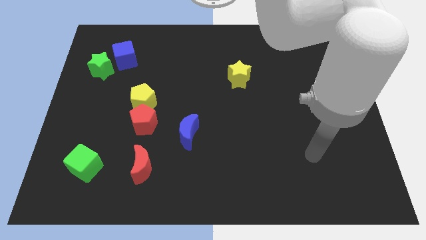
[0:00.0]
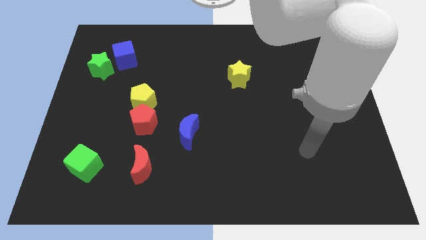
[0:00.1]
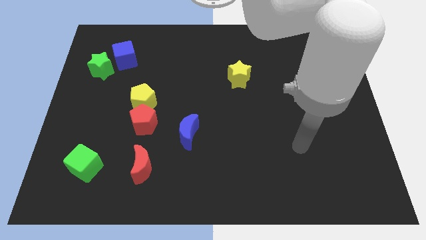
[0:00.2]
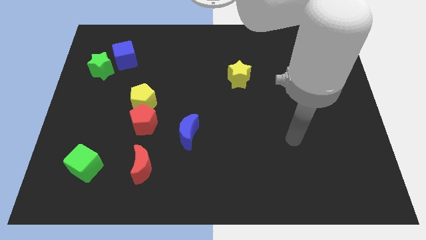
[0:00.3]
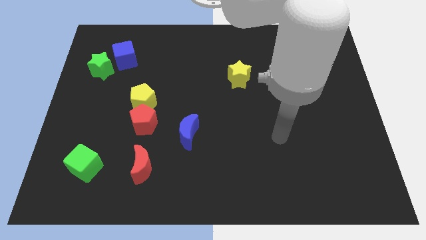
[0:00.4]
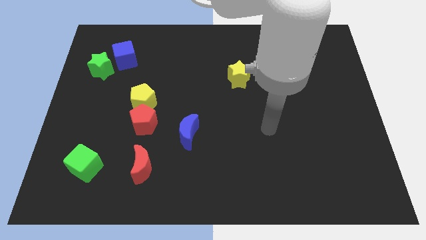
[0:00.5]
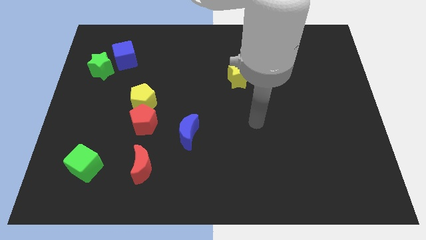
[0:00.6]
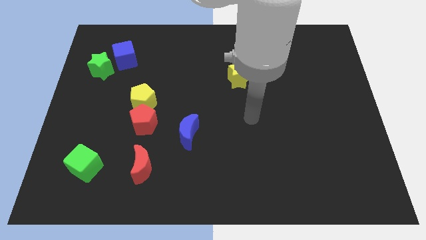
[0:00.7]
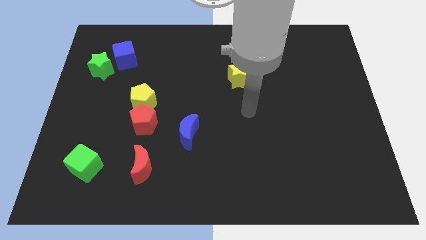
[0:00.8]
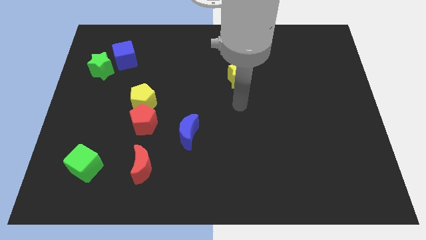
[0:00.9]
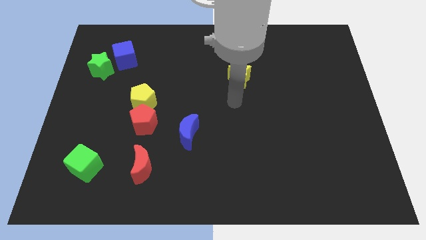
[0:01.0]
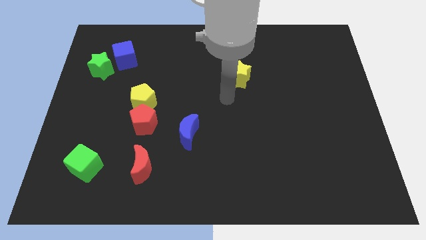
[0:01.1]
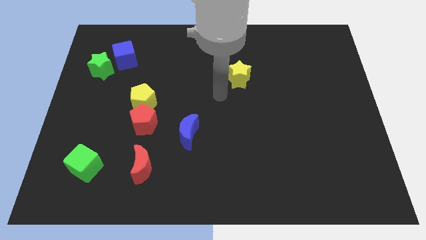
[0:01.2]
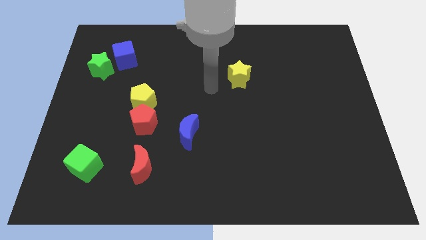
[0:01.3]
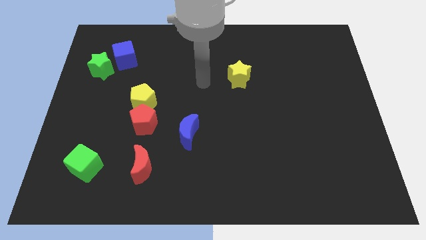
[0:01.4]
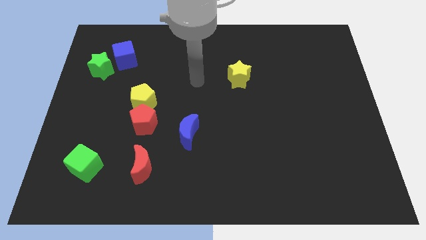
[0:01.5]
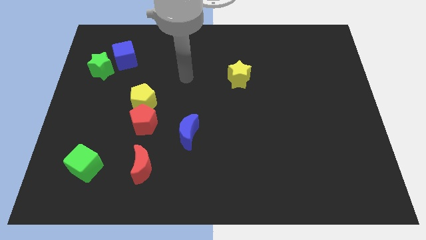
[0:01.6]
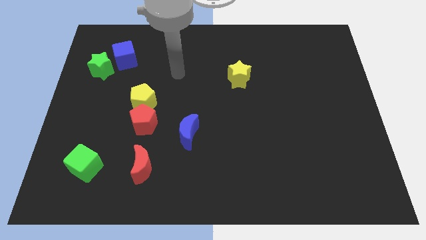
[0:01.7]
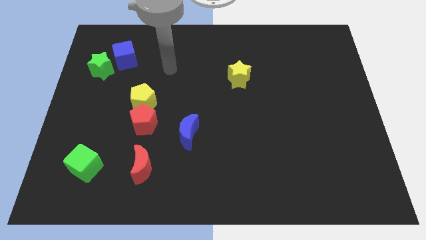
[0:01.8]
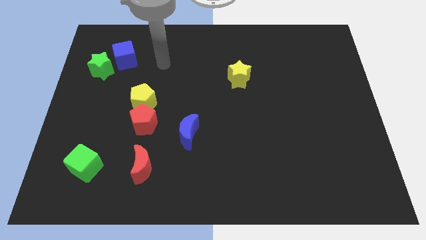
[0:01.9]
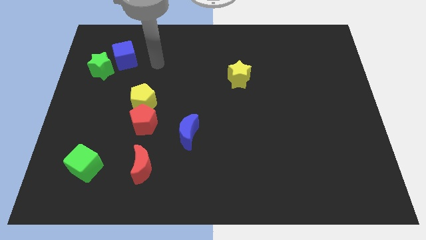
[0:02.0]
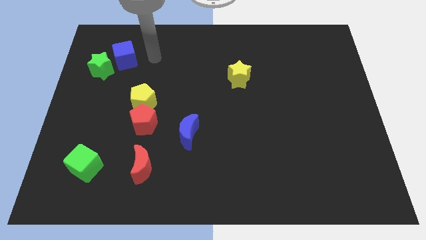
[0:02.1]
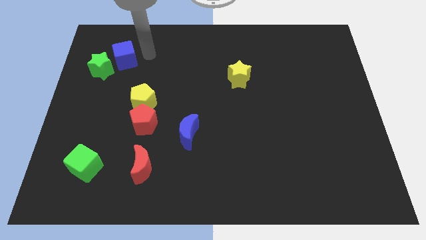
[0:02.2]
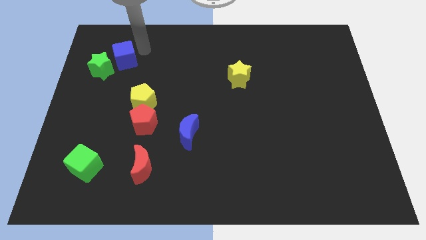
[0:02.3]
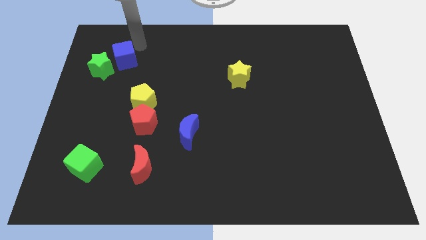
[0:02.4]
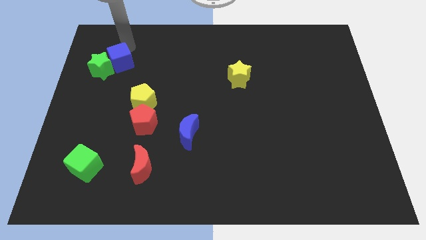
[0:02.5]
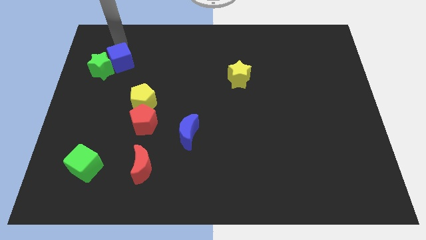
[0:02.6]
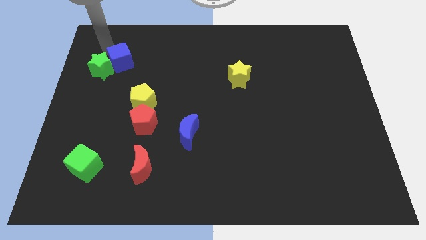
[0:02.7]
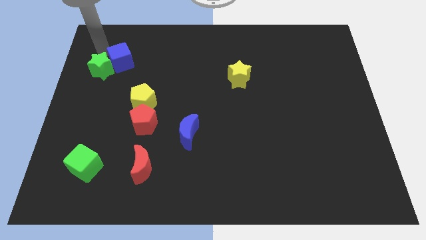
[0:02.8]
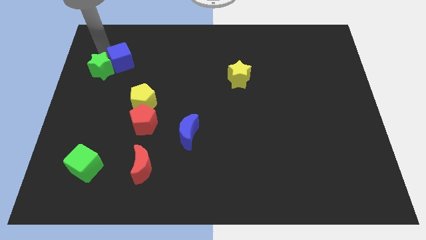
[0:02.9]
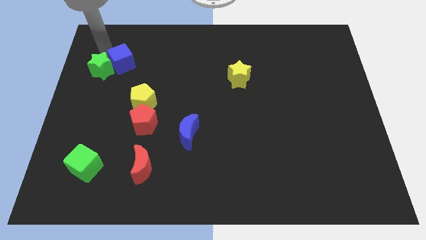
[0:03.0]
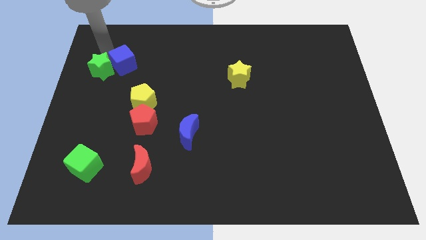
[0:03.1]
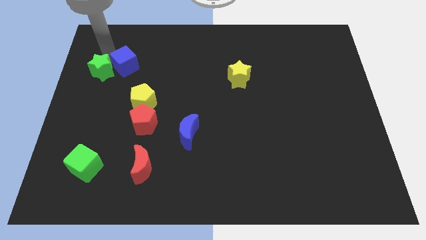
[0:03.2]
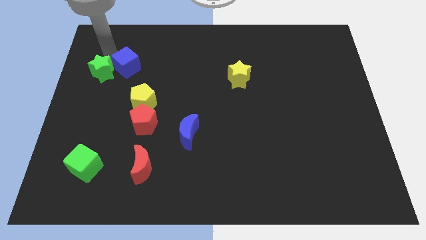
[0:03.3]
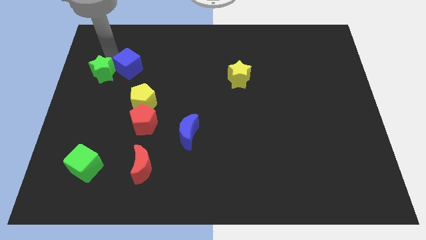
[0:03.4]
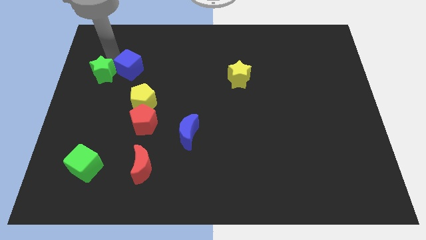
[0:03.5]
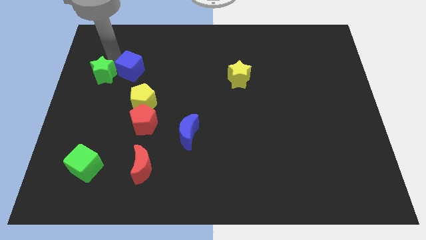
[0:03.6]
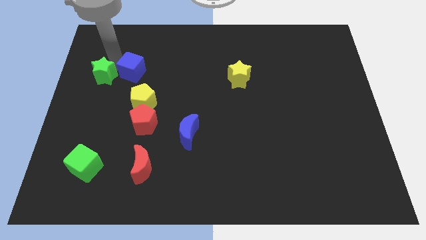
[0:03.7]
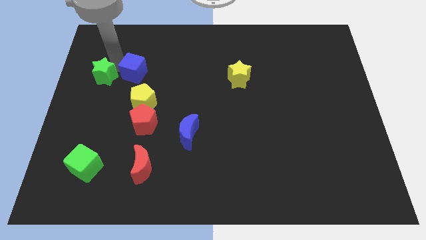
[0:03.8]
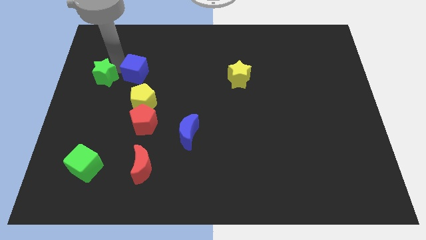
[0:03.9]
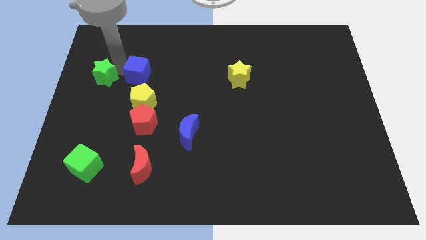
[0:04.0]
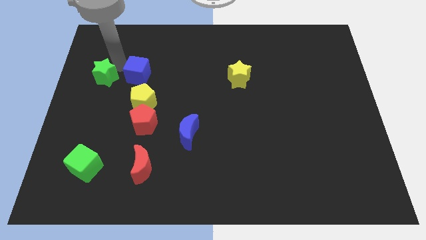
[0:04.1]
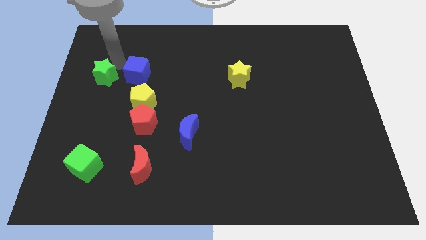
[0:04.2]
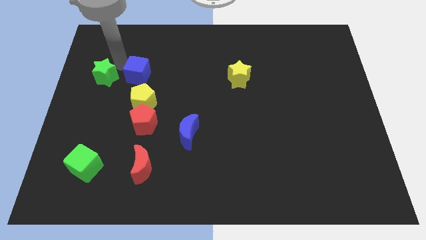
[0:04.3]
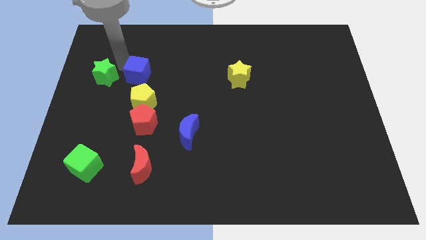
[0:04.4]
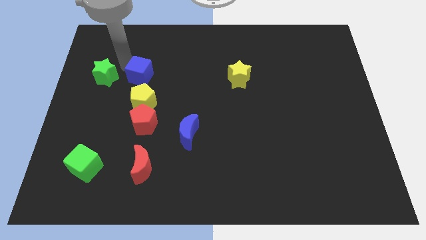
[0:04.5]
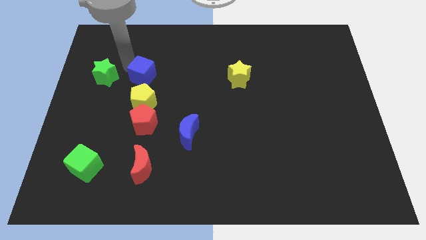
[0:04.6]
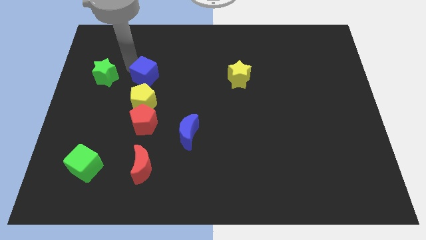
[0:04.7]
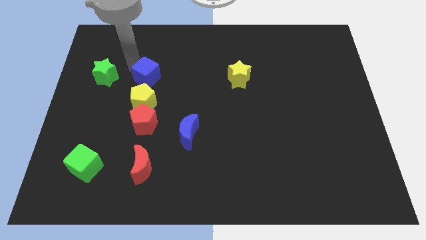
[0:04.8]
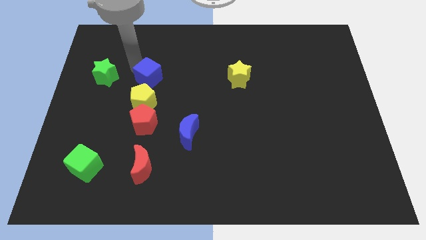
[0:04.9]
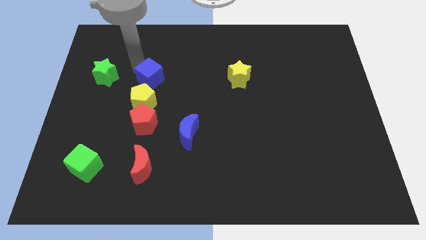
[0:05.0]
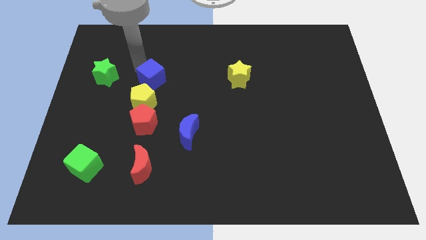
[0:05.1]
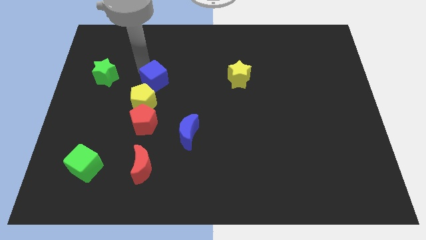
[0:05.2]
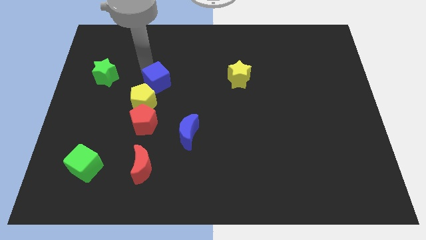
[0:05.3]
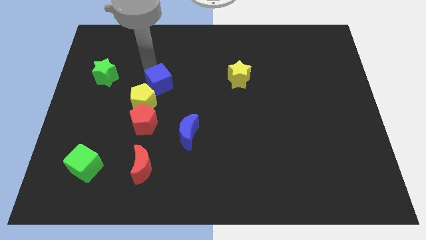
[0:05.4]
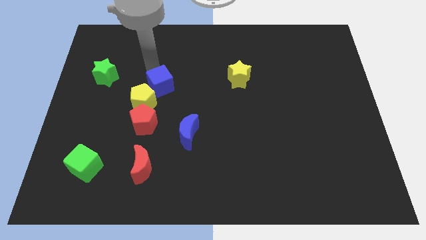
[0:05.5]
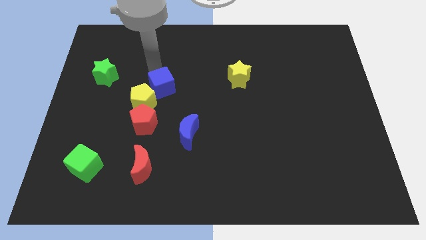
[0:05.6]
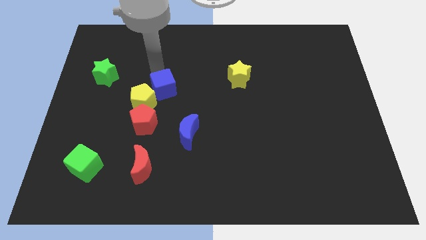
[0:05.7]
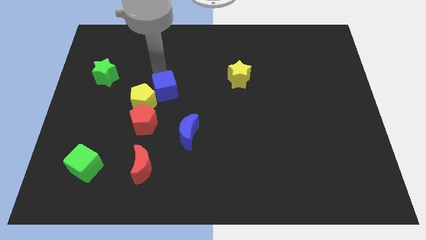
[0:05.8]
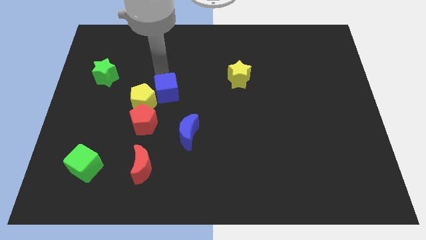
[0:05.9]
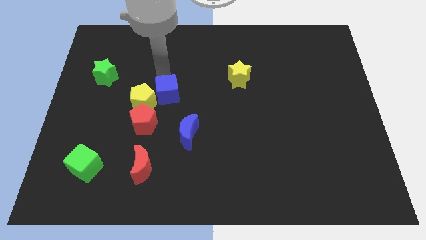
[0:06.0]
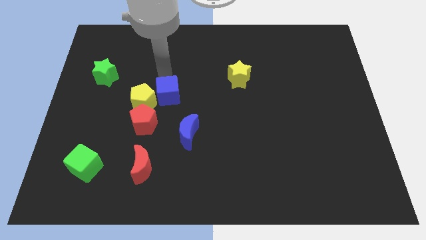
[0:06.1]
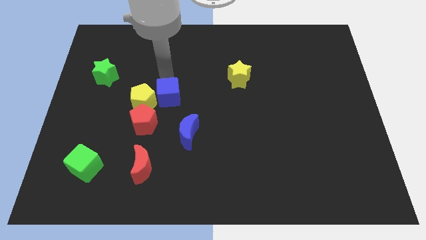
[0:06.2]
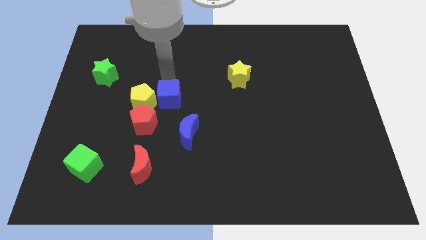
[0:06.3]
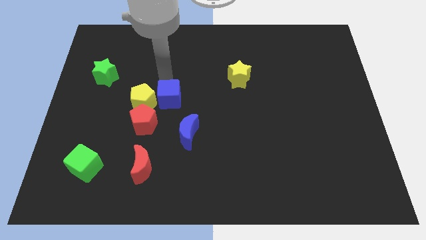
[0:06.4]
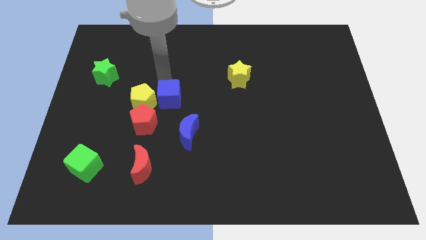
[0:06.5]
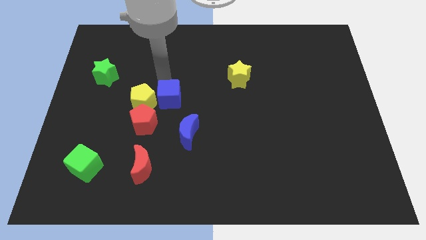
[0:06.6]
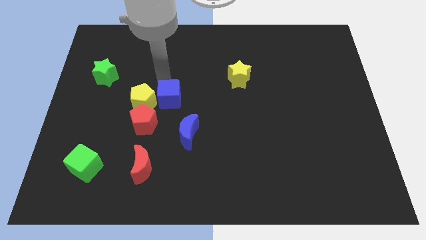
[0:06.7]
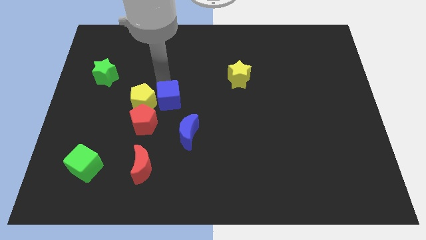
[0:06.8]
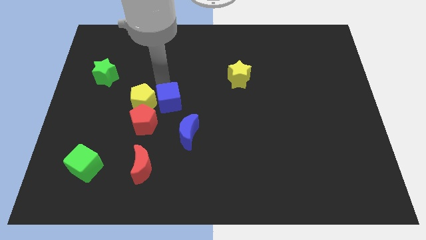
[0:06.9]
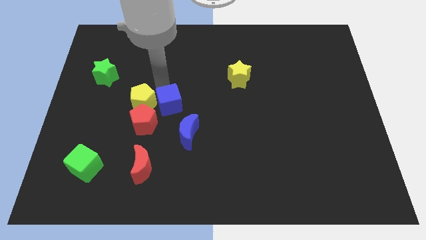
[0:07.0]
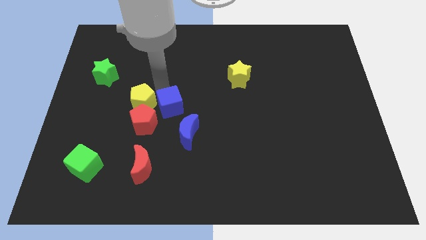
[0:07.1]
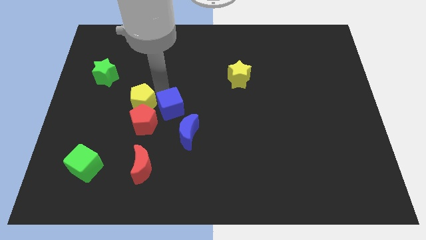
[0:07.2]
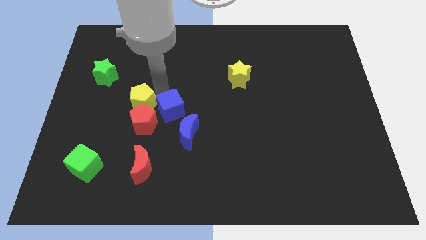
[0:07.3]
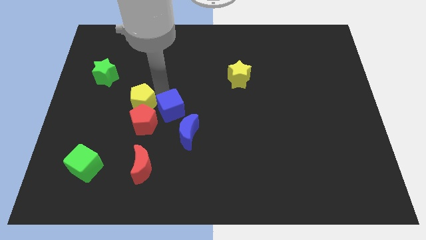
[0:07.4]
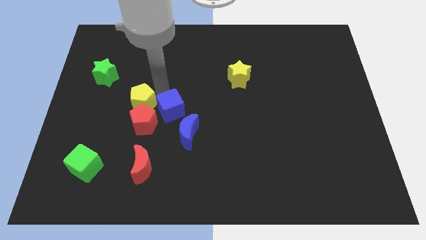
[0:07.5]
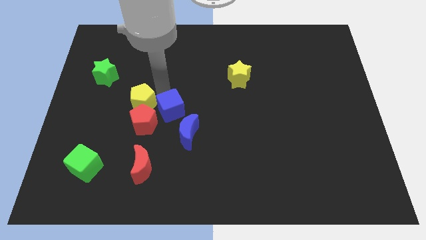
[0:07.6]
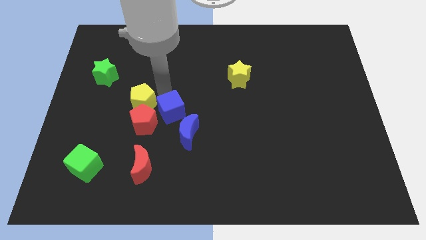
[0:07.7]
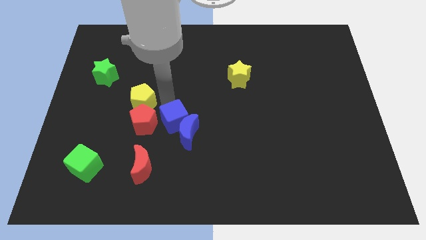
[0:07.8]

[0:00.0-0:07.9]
push the blue cube next to the blue moon
